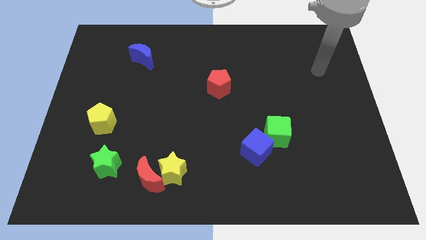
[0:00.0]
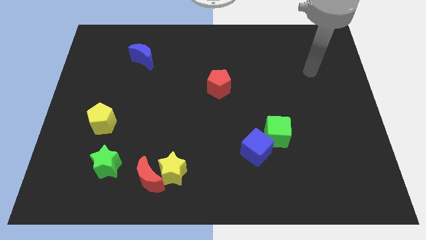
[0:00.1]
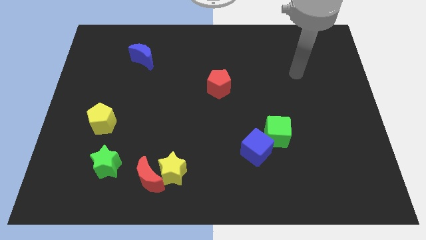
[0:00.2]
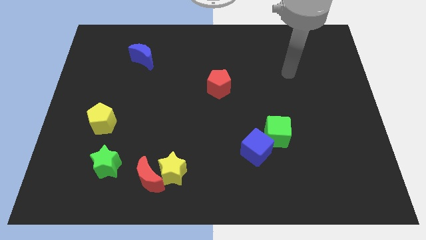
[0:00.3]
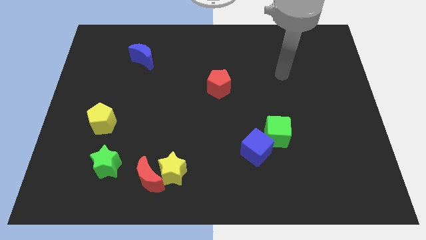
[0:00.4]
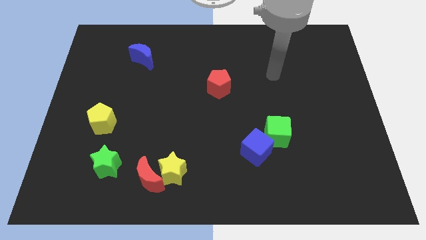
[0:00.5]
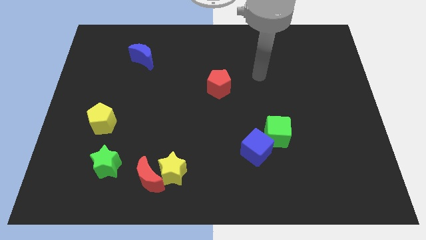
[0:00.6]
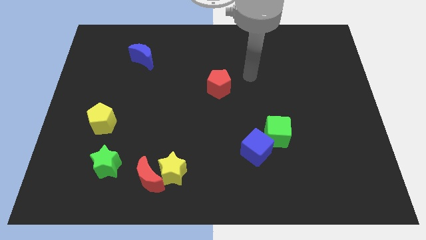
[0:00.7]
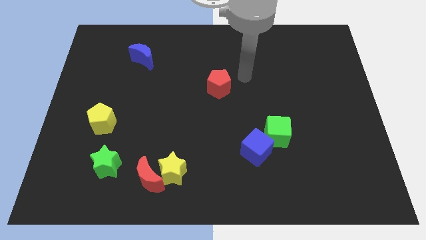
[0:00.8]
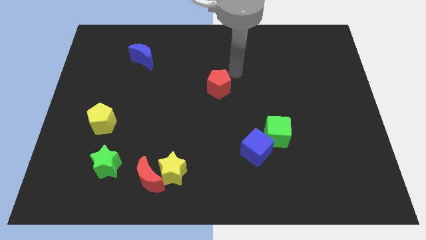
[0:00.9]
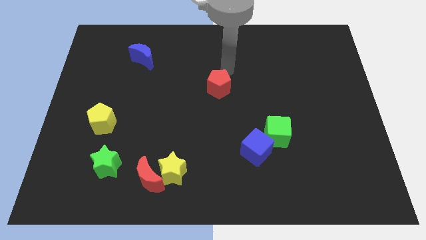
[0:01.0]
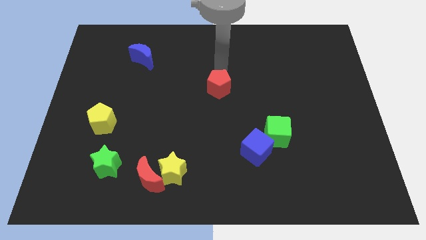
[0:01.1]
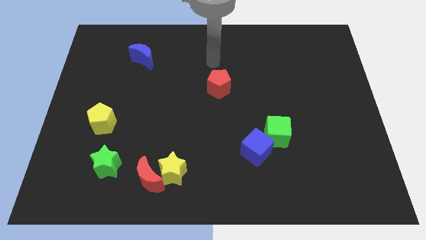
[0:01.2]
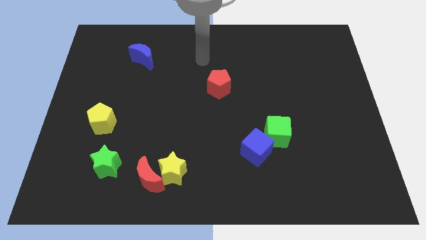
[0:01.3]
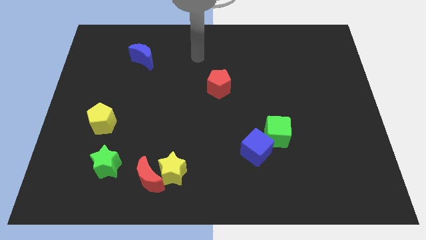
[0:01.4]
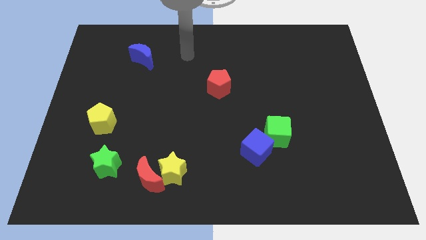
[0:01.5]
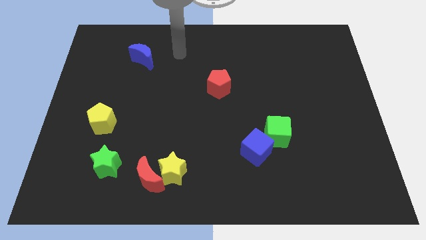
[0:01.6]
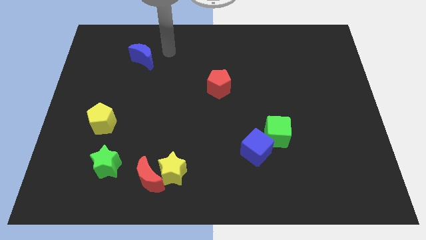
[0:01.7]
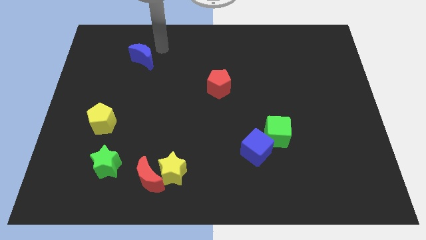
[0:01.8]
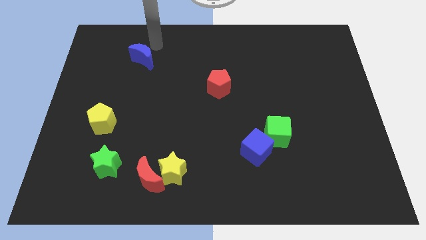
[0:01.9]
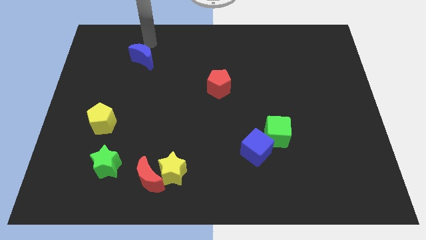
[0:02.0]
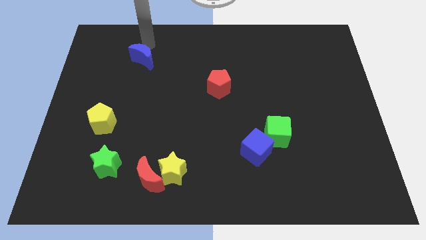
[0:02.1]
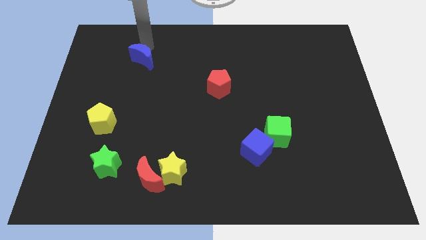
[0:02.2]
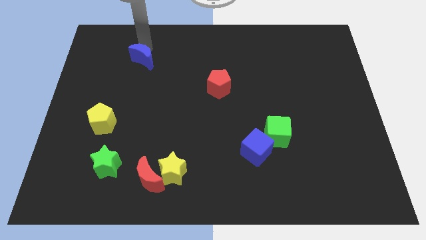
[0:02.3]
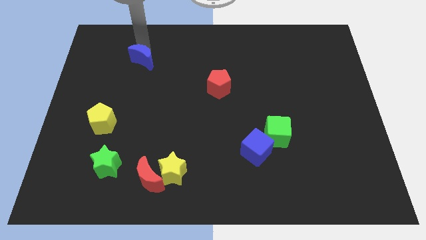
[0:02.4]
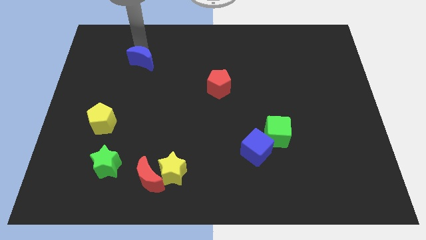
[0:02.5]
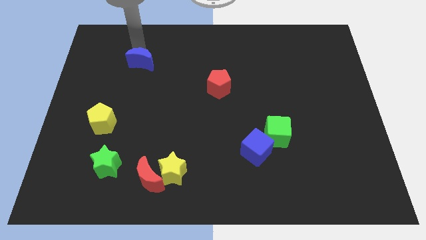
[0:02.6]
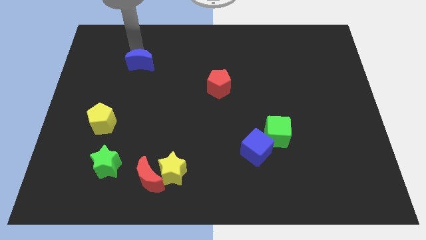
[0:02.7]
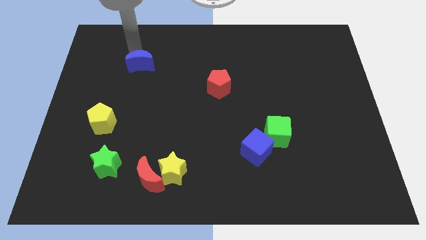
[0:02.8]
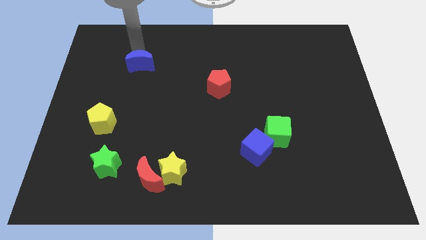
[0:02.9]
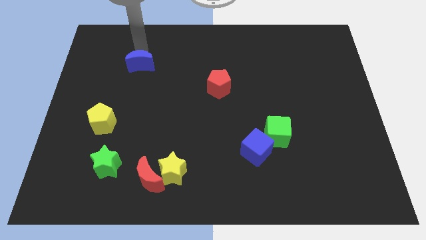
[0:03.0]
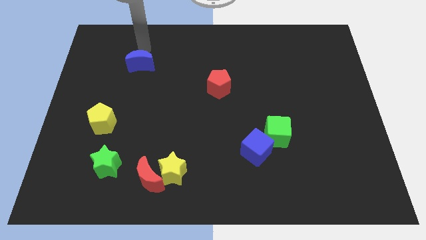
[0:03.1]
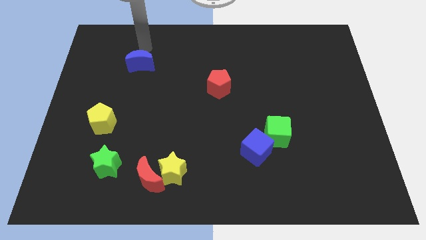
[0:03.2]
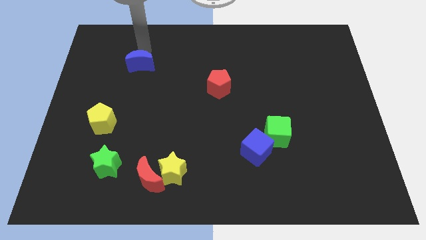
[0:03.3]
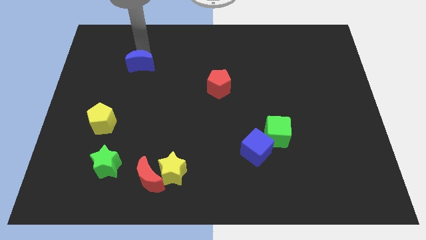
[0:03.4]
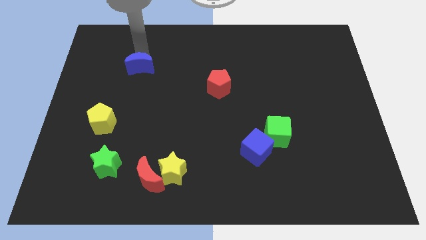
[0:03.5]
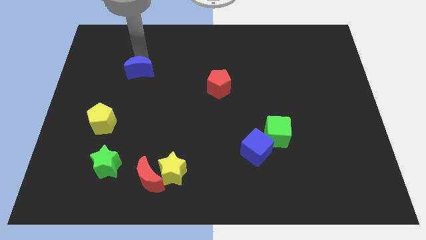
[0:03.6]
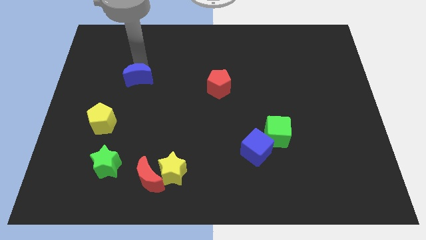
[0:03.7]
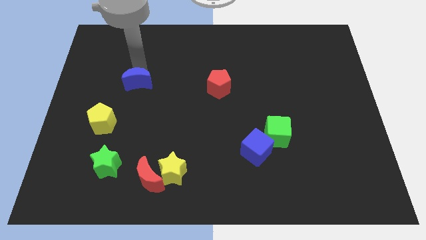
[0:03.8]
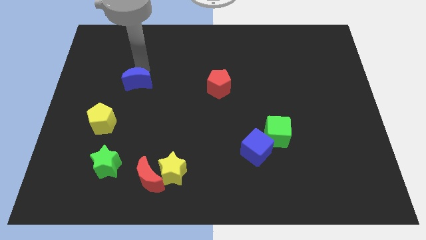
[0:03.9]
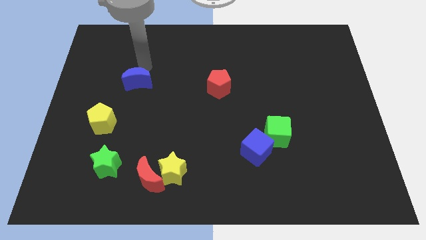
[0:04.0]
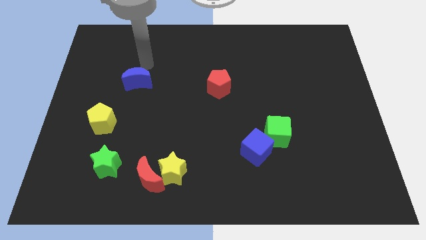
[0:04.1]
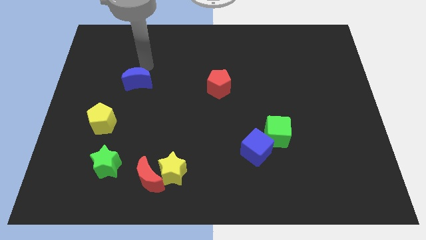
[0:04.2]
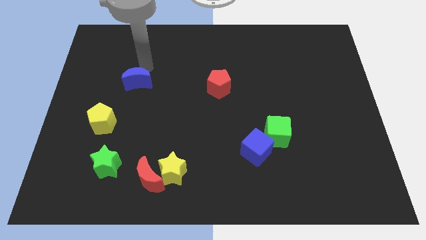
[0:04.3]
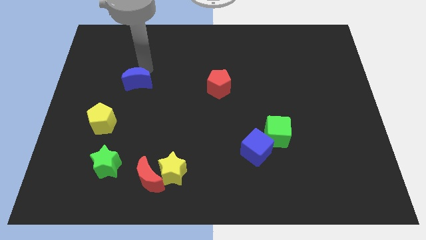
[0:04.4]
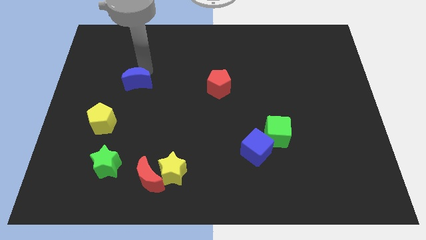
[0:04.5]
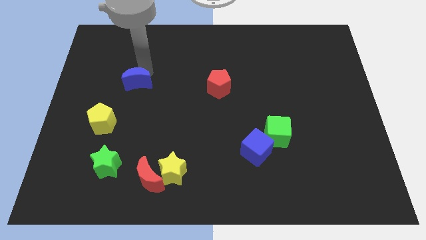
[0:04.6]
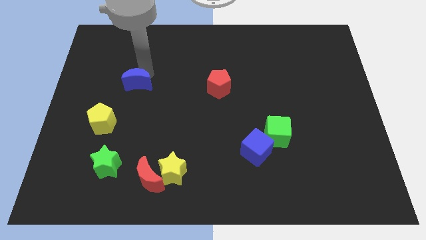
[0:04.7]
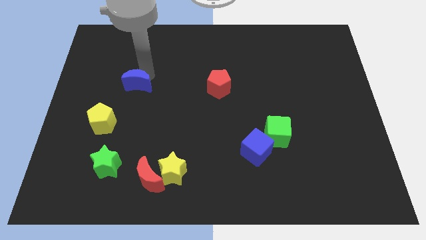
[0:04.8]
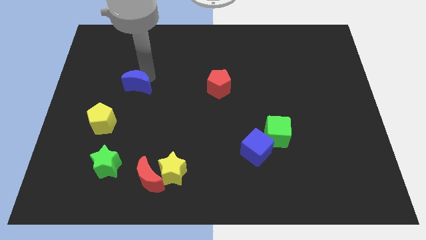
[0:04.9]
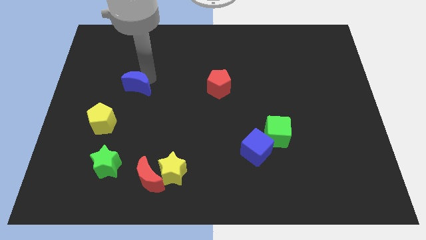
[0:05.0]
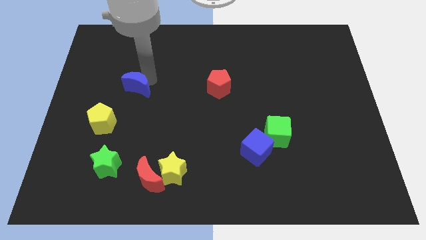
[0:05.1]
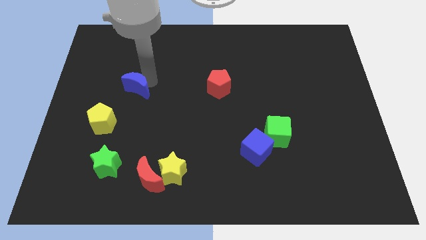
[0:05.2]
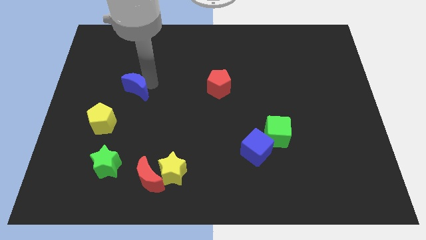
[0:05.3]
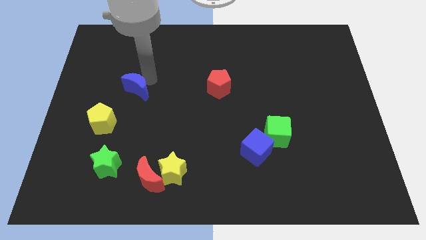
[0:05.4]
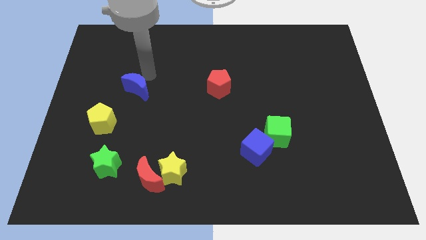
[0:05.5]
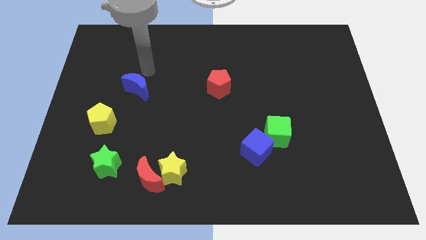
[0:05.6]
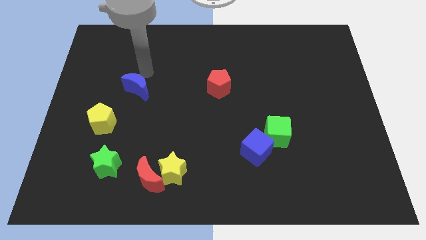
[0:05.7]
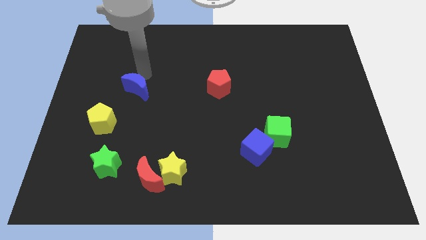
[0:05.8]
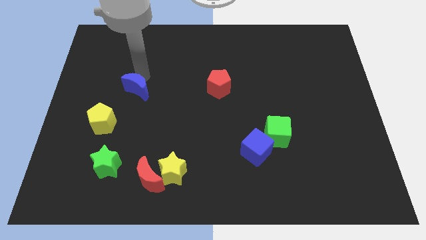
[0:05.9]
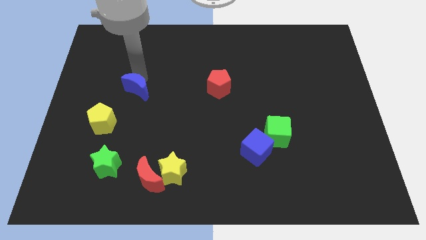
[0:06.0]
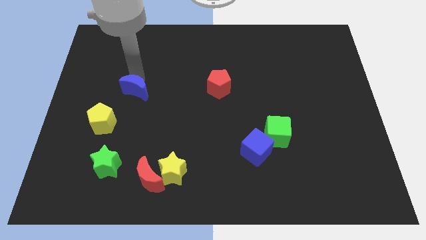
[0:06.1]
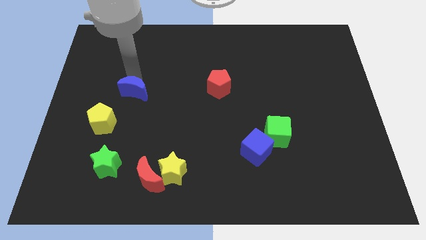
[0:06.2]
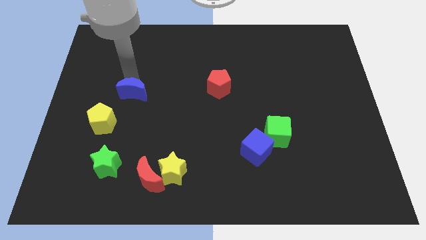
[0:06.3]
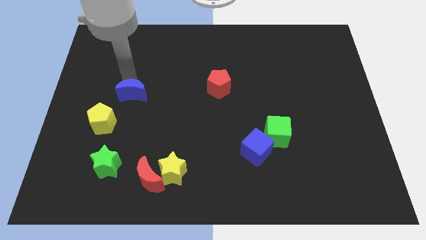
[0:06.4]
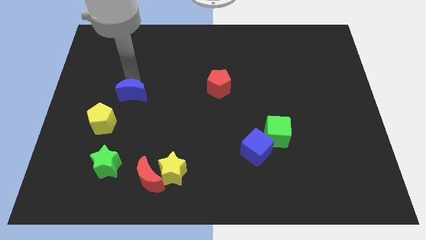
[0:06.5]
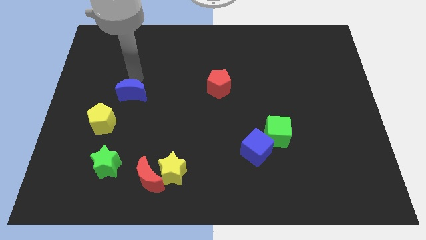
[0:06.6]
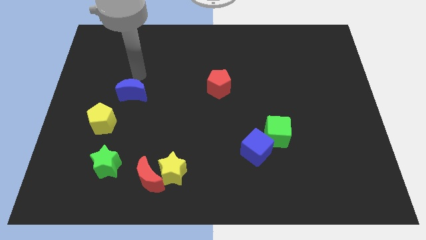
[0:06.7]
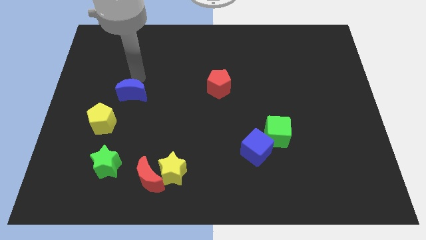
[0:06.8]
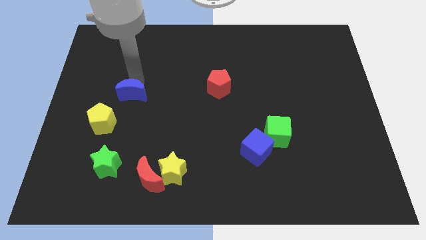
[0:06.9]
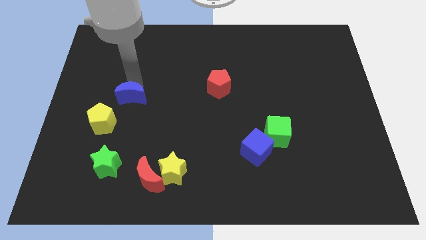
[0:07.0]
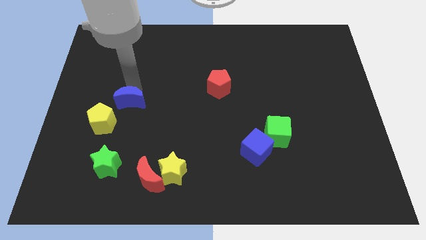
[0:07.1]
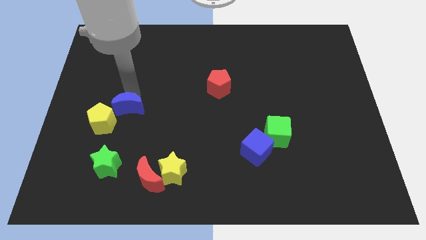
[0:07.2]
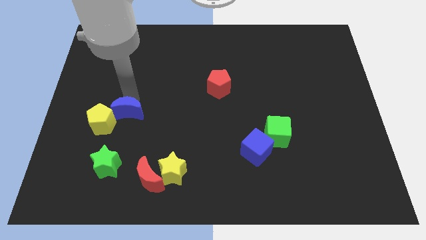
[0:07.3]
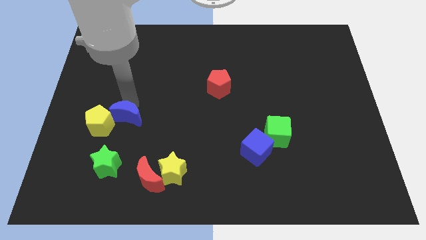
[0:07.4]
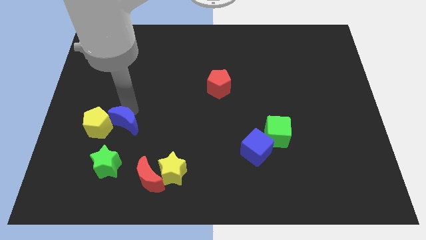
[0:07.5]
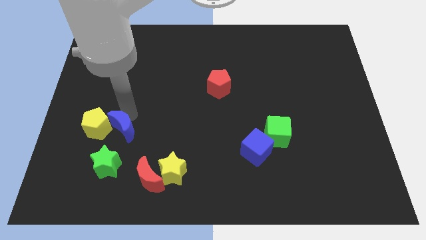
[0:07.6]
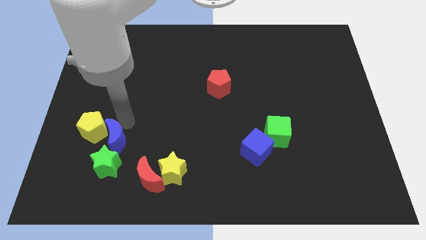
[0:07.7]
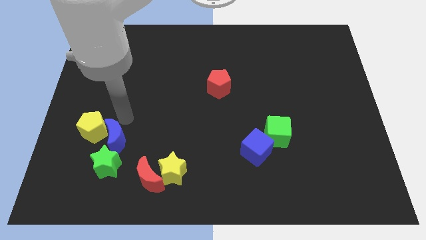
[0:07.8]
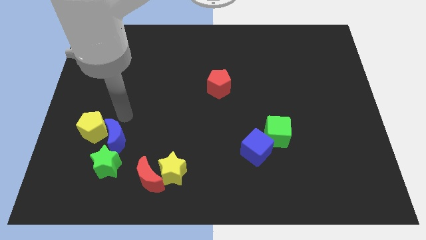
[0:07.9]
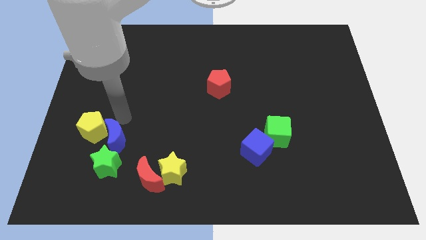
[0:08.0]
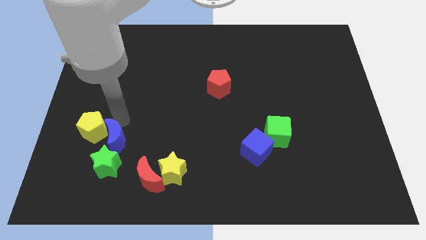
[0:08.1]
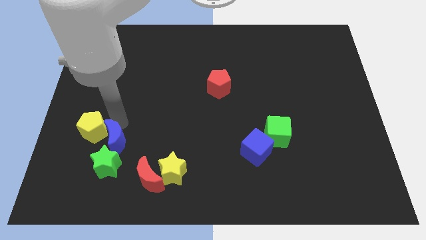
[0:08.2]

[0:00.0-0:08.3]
push the blue moon towards the green star
